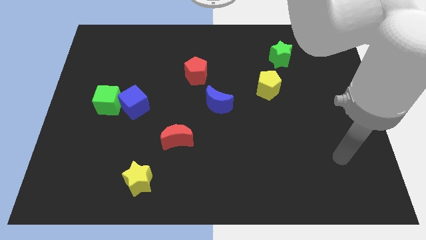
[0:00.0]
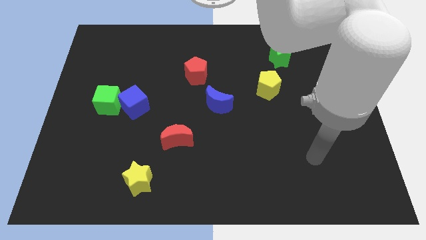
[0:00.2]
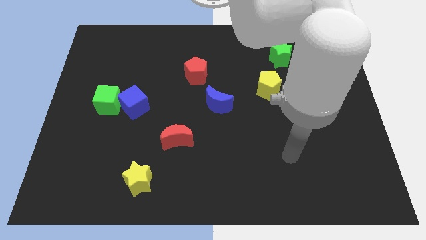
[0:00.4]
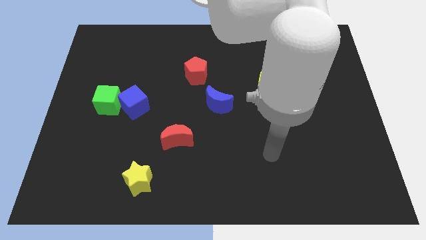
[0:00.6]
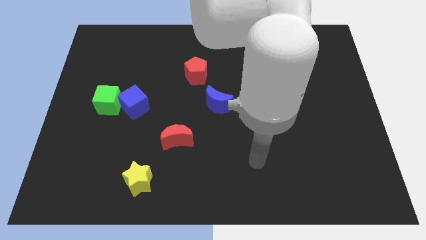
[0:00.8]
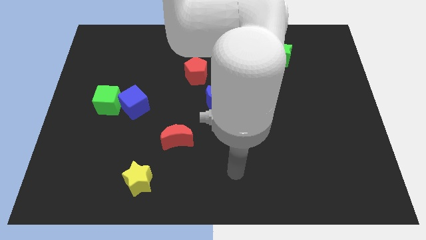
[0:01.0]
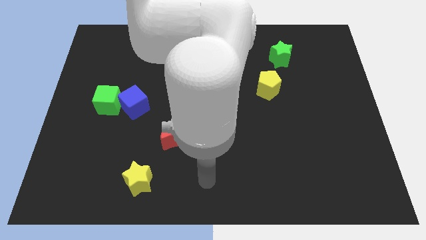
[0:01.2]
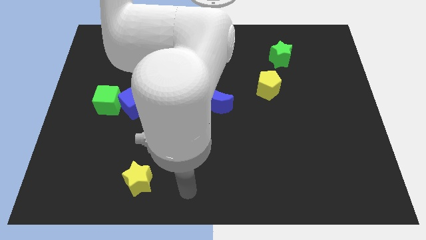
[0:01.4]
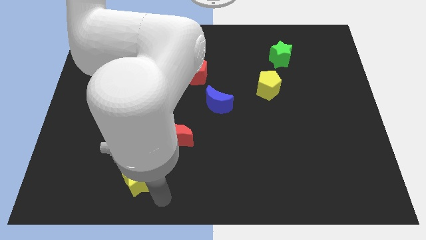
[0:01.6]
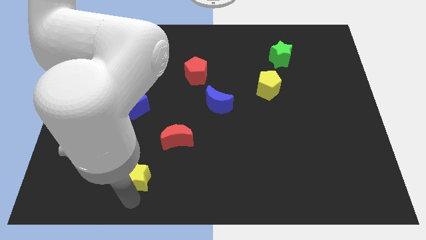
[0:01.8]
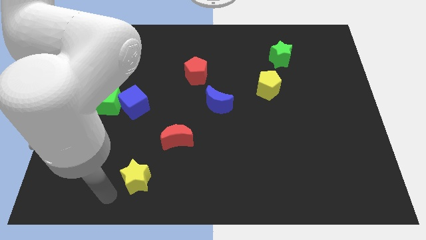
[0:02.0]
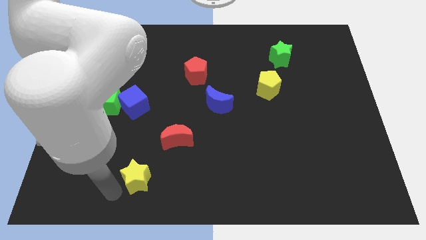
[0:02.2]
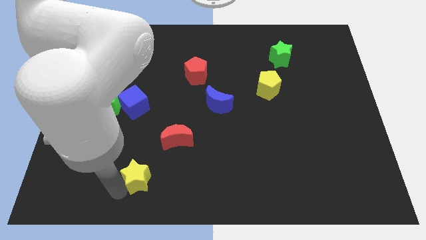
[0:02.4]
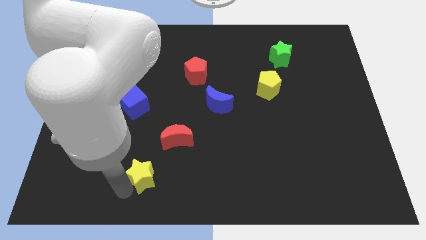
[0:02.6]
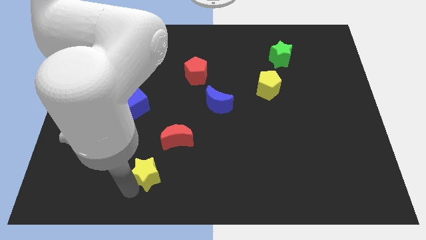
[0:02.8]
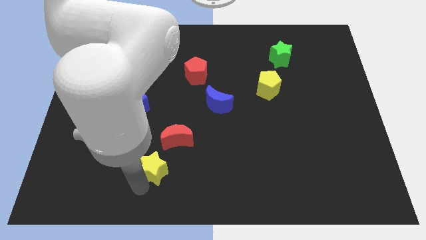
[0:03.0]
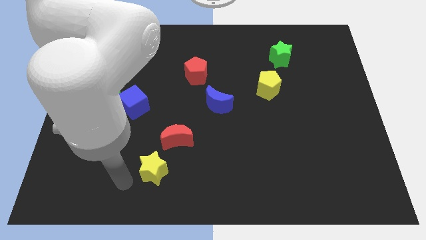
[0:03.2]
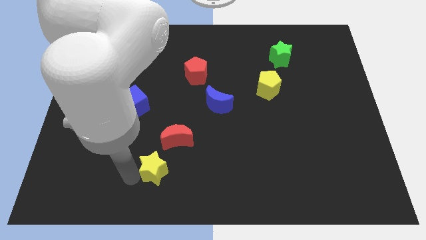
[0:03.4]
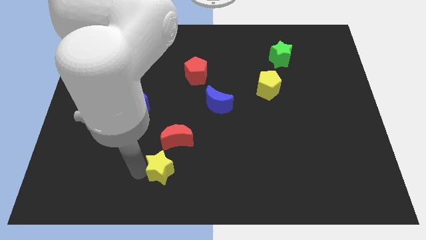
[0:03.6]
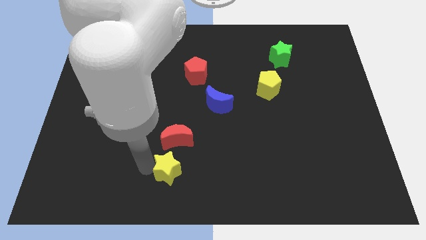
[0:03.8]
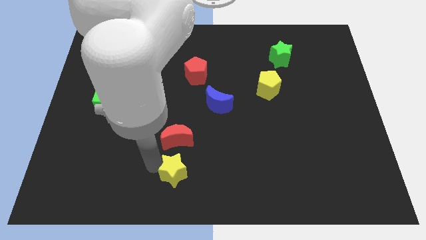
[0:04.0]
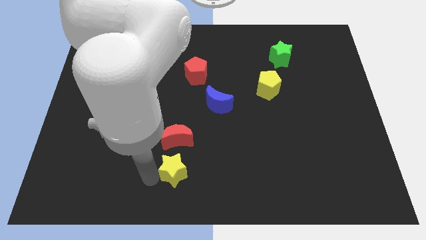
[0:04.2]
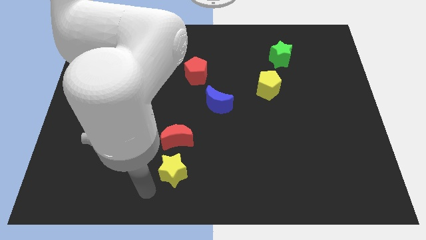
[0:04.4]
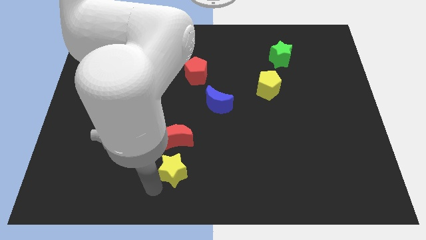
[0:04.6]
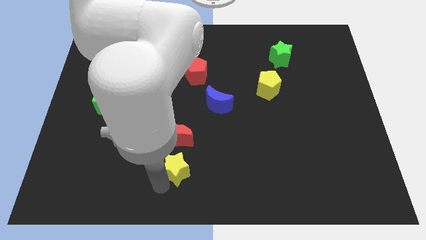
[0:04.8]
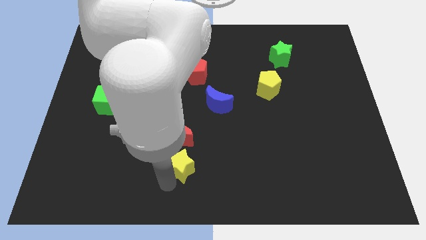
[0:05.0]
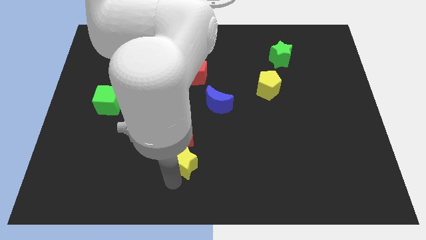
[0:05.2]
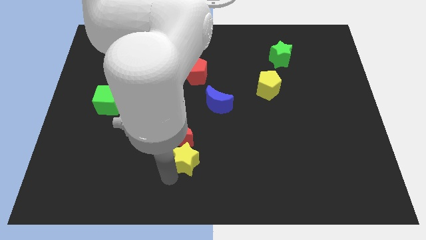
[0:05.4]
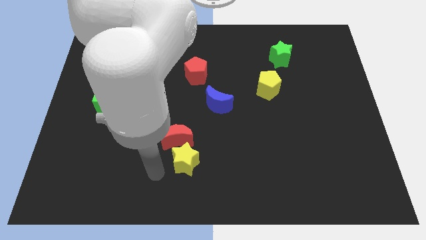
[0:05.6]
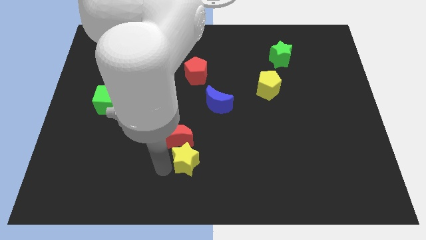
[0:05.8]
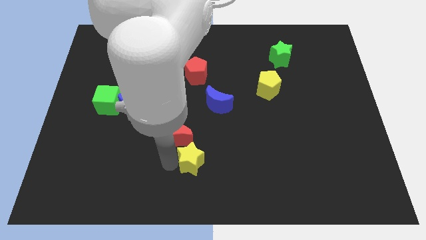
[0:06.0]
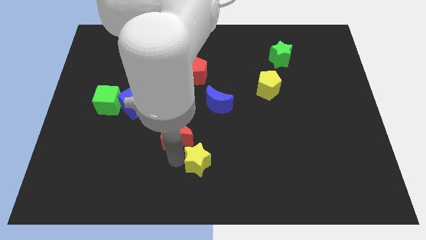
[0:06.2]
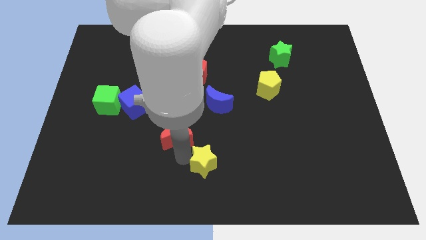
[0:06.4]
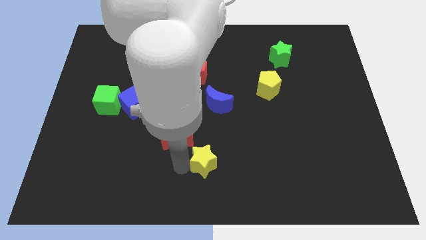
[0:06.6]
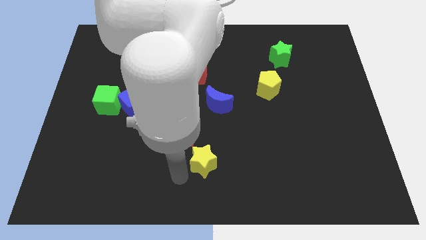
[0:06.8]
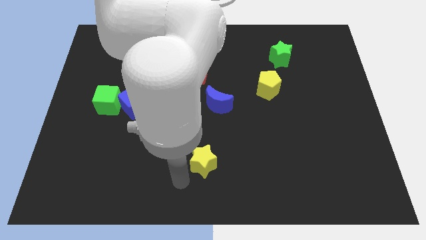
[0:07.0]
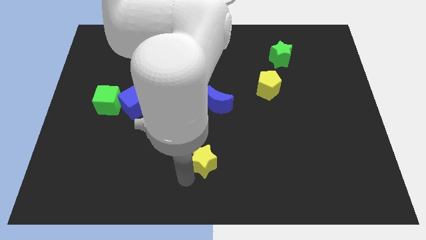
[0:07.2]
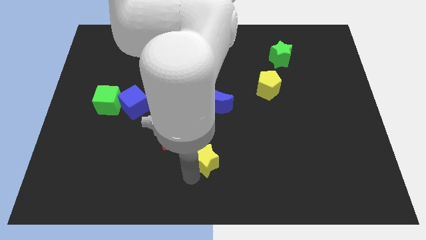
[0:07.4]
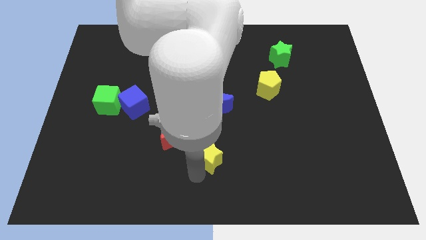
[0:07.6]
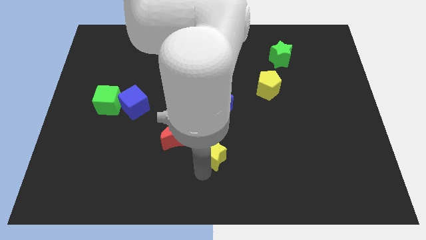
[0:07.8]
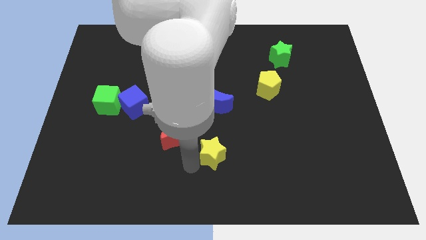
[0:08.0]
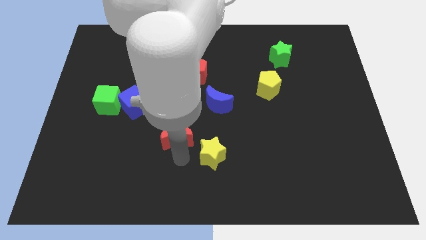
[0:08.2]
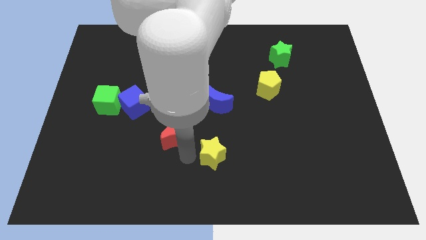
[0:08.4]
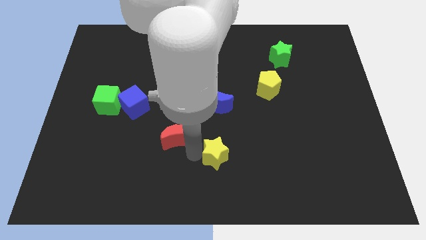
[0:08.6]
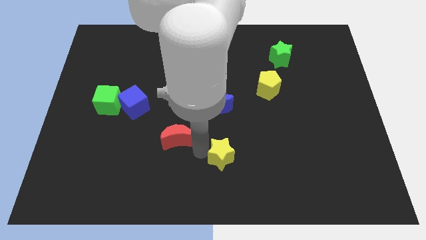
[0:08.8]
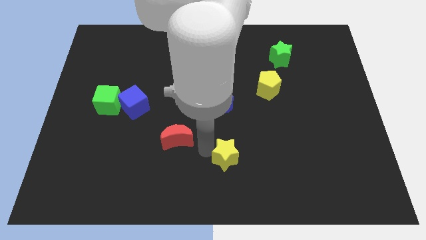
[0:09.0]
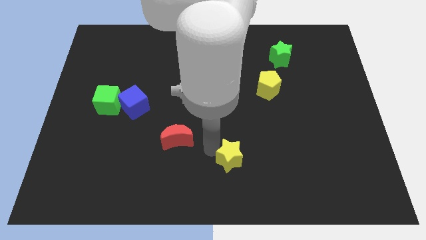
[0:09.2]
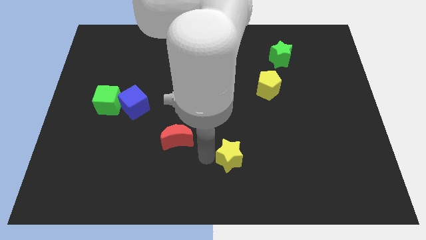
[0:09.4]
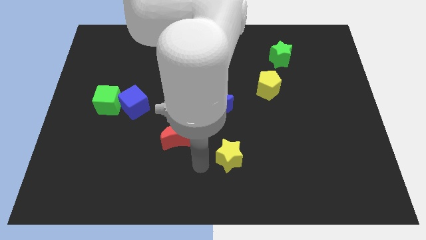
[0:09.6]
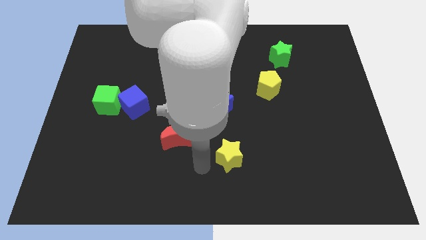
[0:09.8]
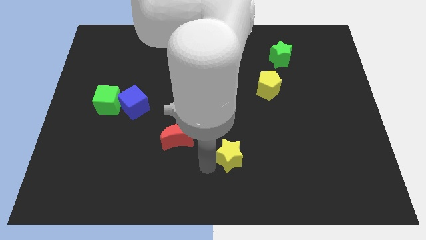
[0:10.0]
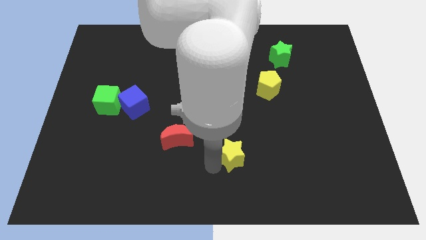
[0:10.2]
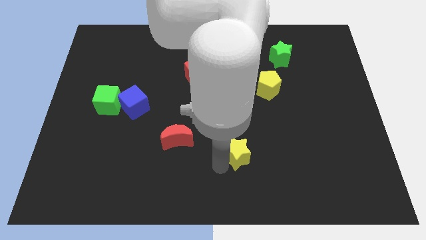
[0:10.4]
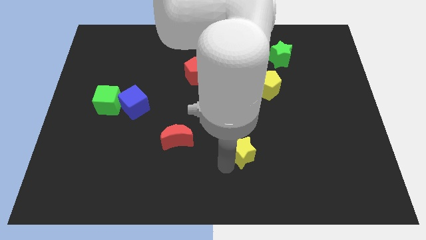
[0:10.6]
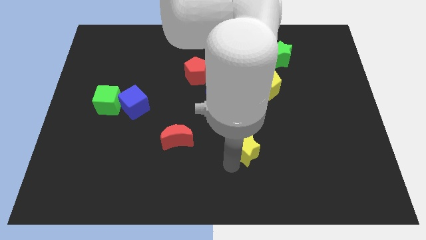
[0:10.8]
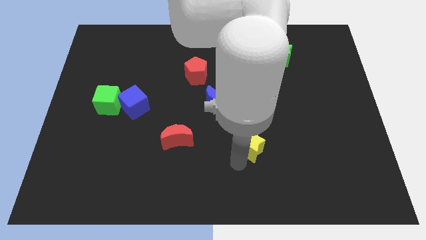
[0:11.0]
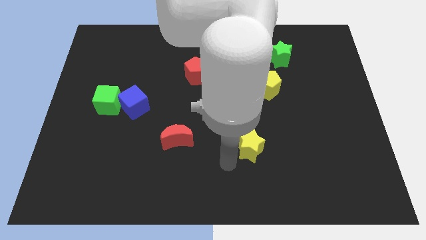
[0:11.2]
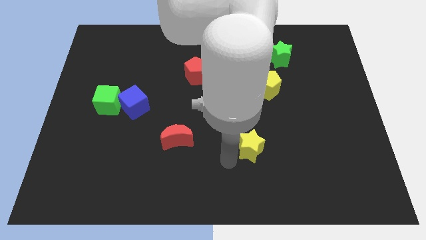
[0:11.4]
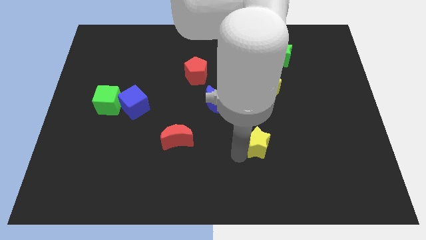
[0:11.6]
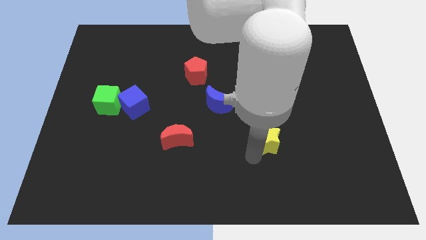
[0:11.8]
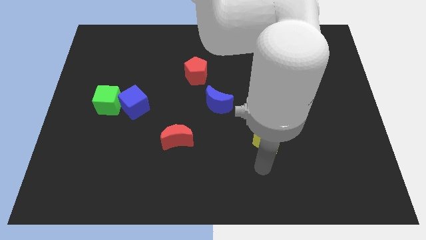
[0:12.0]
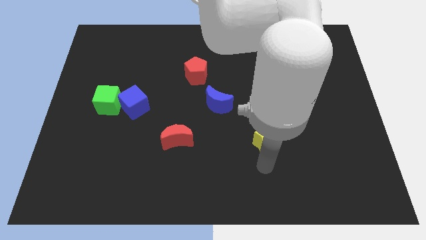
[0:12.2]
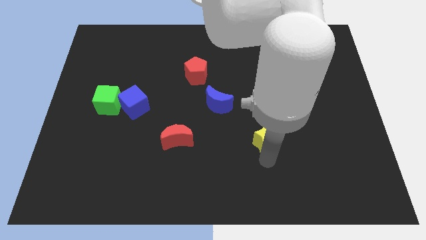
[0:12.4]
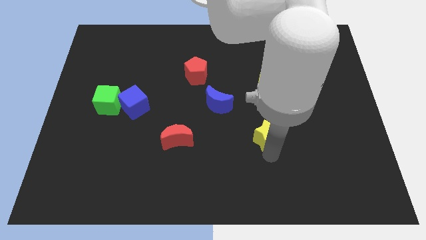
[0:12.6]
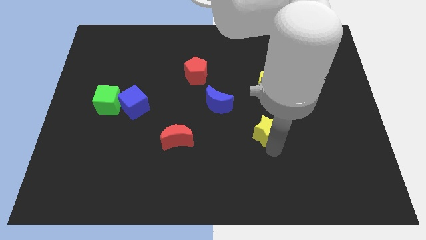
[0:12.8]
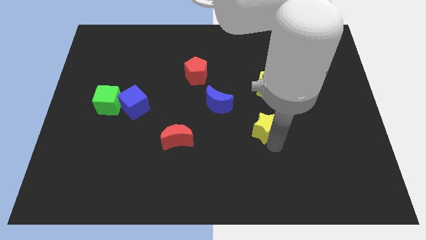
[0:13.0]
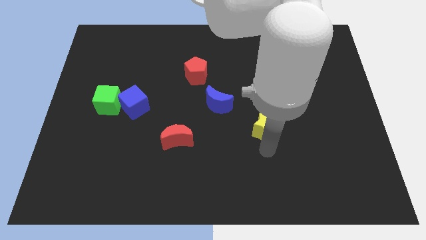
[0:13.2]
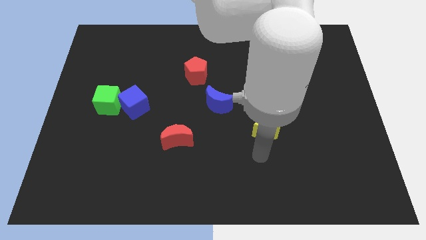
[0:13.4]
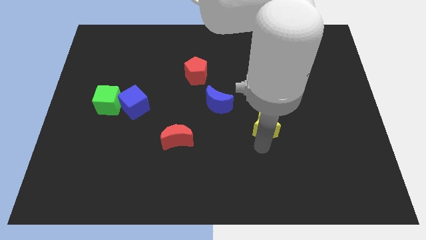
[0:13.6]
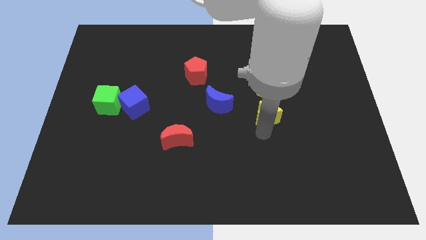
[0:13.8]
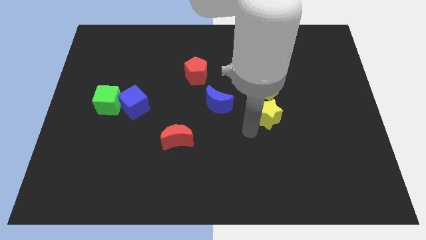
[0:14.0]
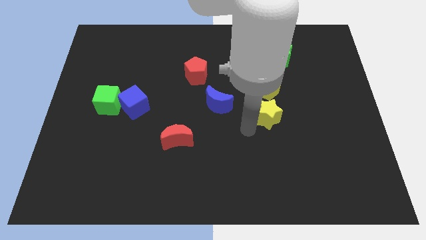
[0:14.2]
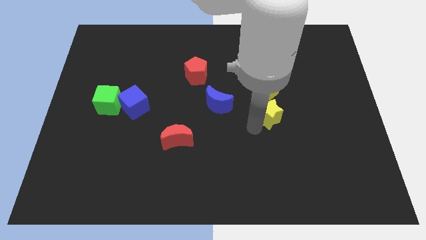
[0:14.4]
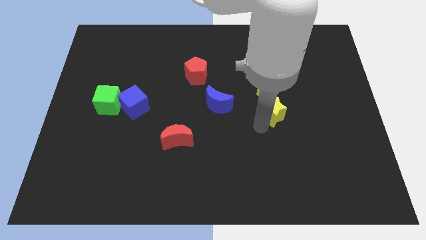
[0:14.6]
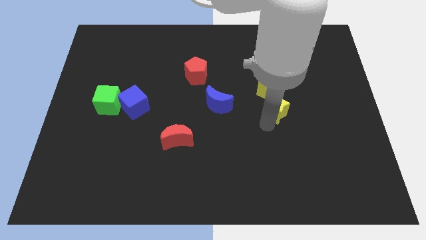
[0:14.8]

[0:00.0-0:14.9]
move the yellow star diagonally down and to the right of the yellow pentagon
